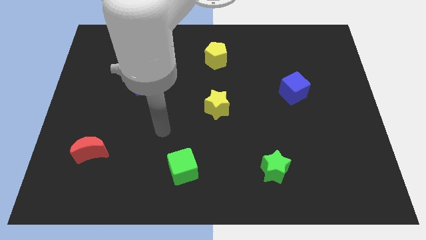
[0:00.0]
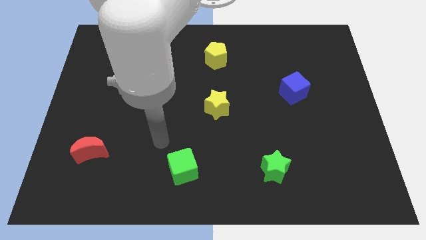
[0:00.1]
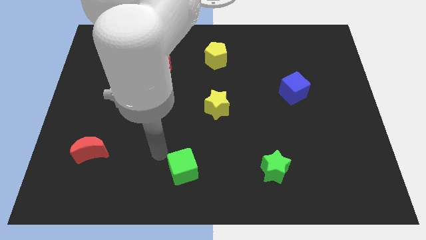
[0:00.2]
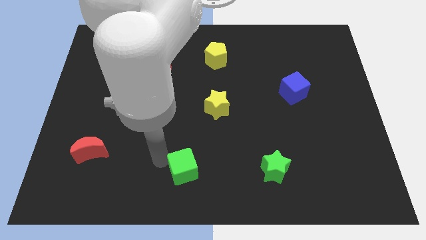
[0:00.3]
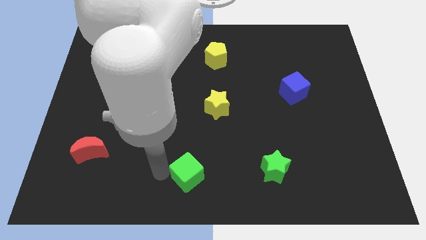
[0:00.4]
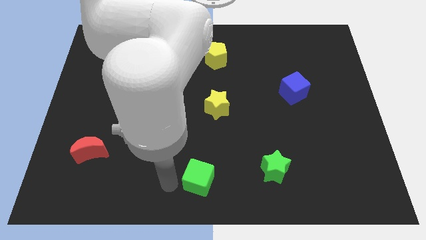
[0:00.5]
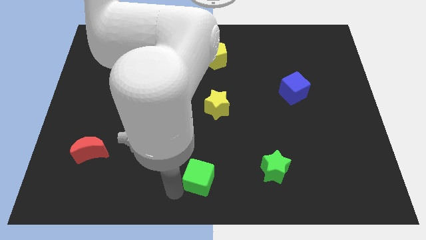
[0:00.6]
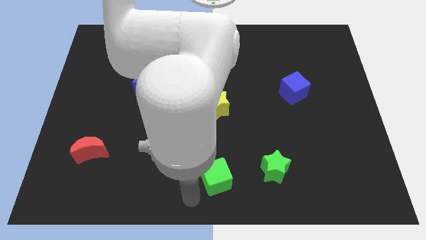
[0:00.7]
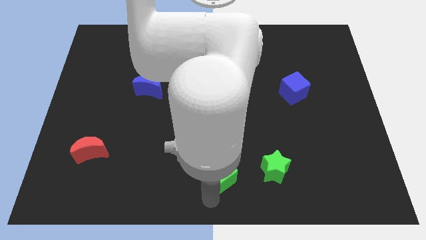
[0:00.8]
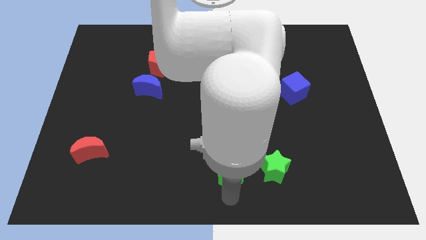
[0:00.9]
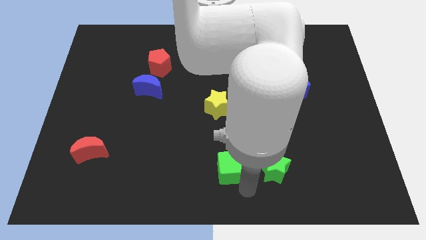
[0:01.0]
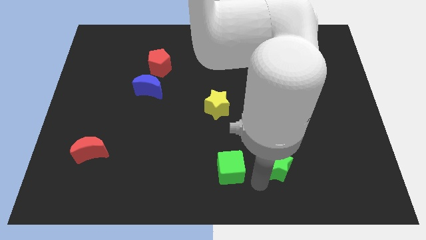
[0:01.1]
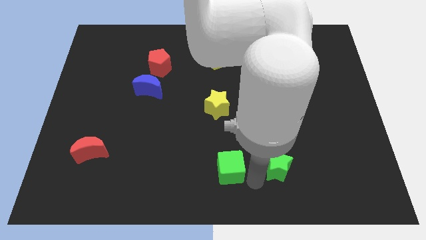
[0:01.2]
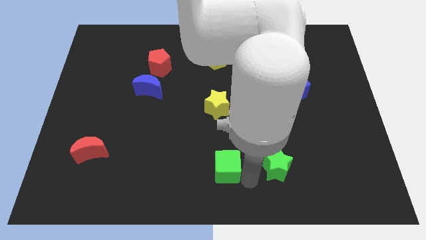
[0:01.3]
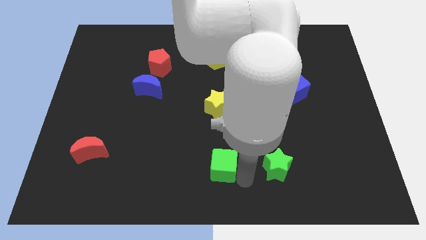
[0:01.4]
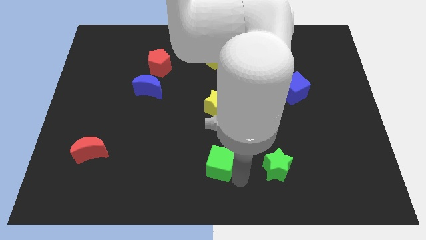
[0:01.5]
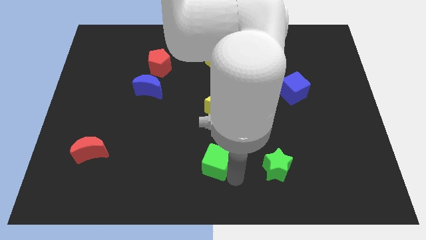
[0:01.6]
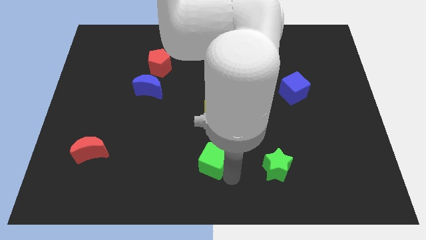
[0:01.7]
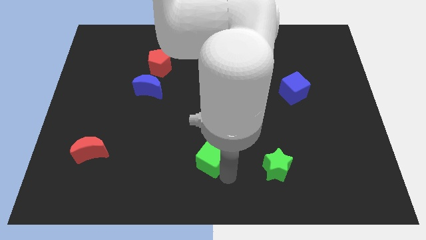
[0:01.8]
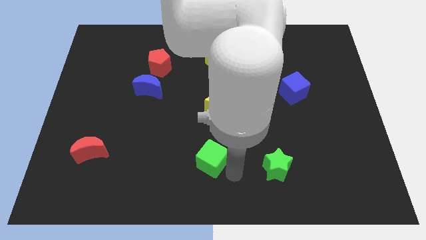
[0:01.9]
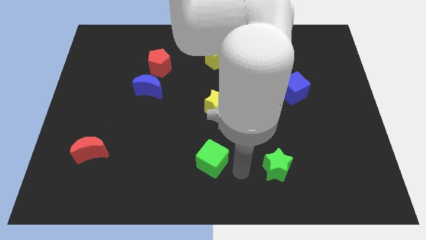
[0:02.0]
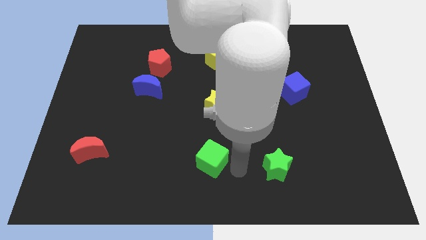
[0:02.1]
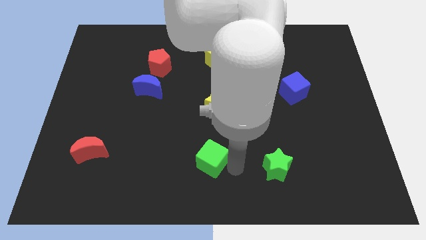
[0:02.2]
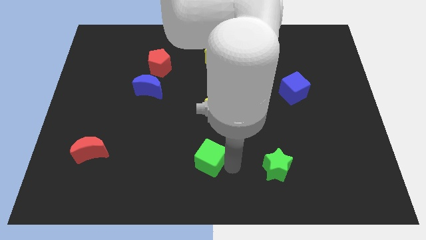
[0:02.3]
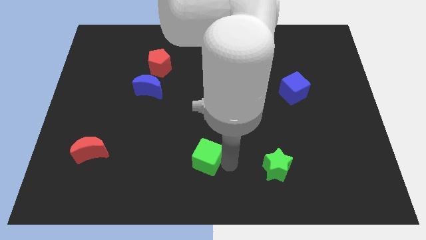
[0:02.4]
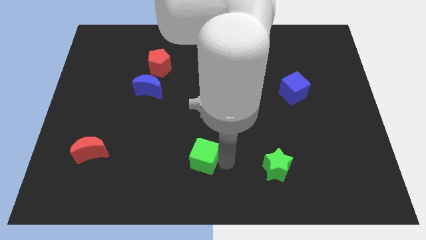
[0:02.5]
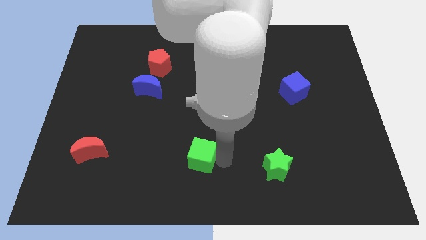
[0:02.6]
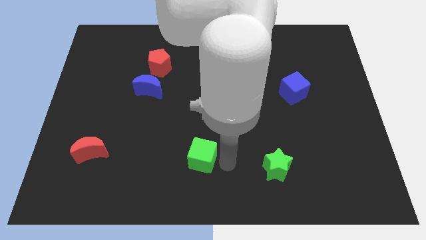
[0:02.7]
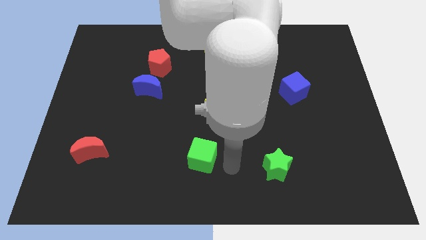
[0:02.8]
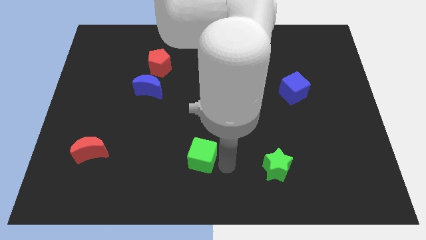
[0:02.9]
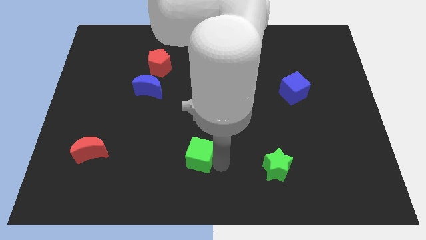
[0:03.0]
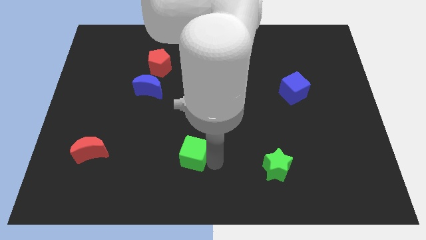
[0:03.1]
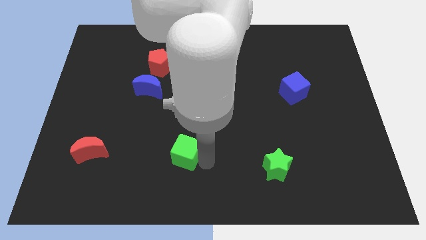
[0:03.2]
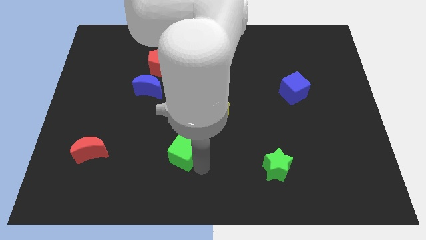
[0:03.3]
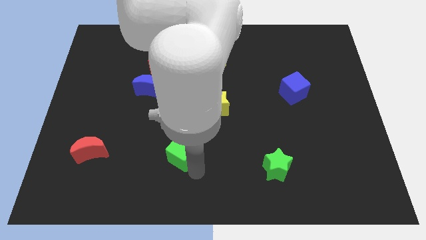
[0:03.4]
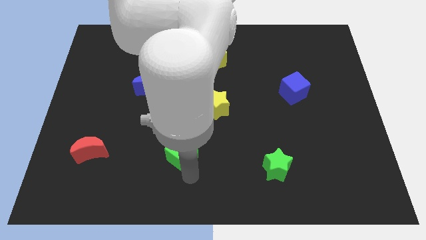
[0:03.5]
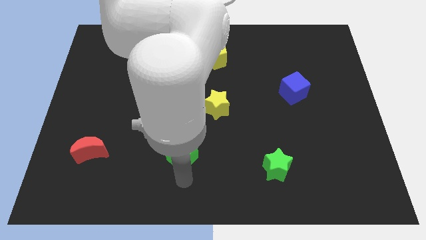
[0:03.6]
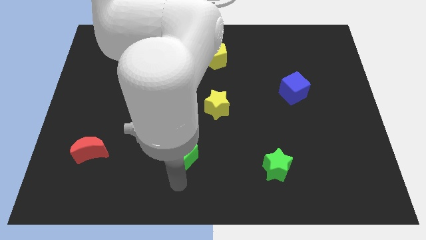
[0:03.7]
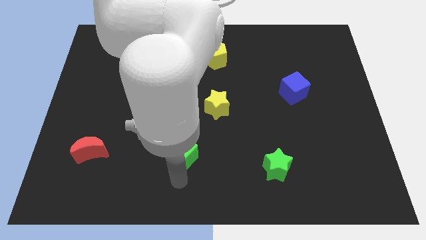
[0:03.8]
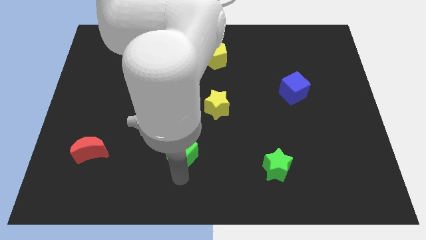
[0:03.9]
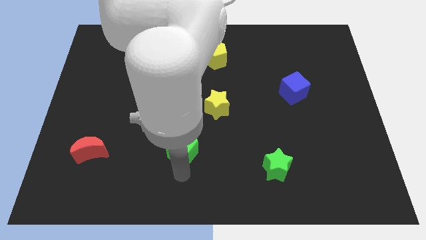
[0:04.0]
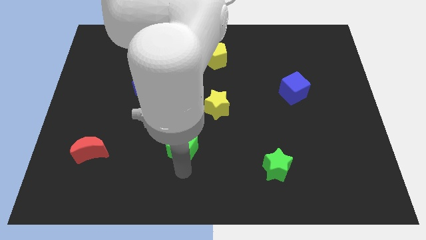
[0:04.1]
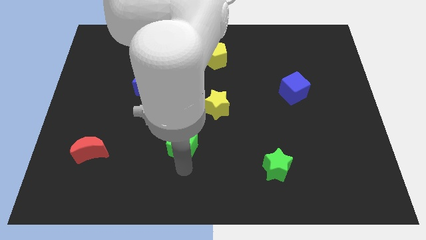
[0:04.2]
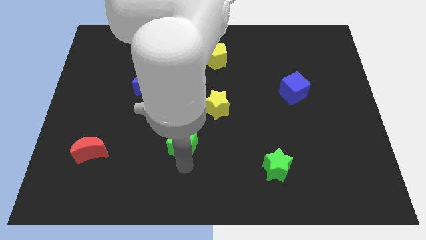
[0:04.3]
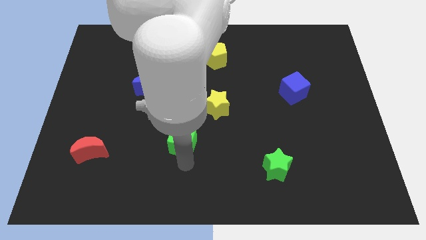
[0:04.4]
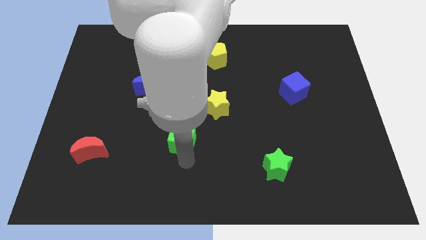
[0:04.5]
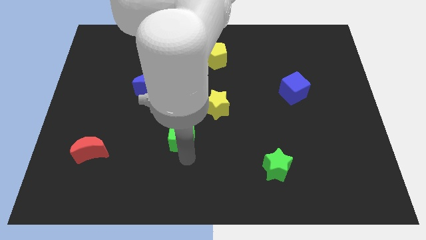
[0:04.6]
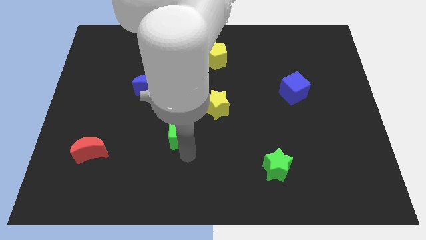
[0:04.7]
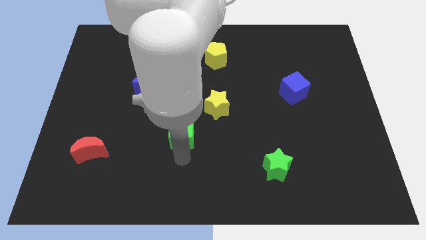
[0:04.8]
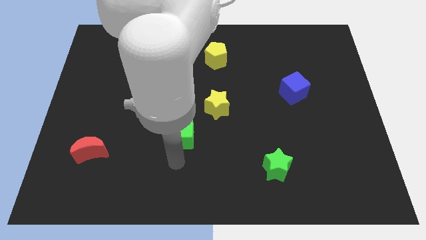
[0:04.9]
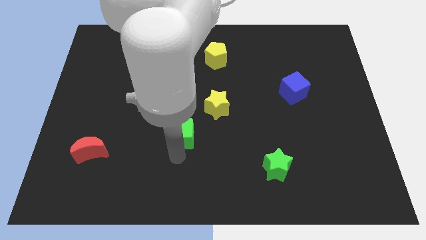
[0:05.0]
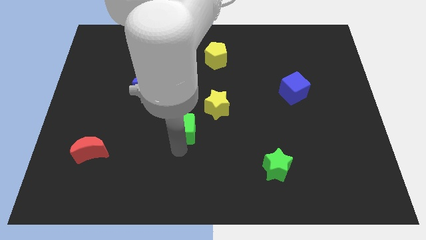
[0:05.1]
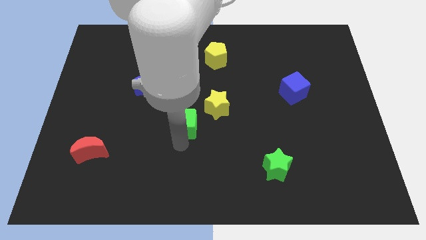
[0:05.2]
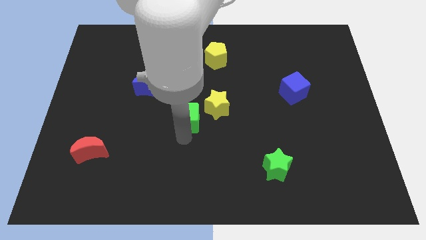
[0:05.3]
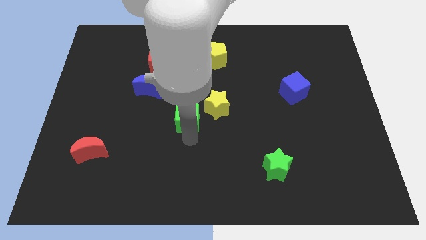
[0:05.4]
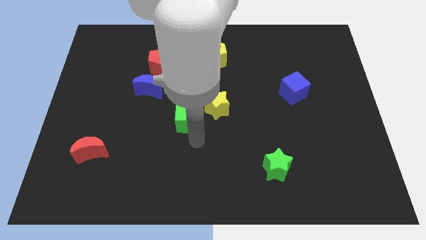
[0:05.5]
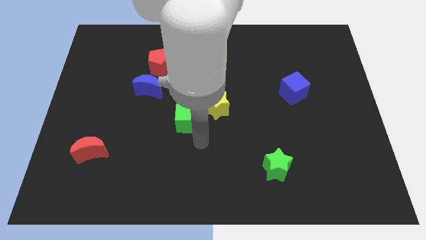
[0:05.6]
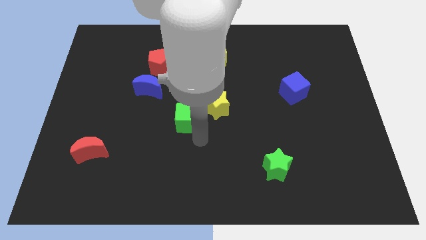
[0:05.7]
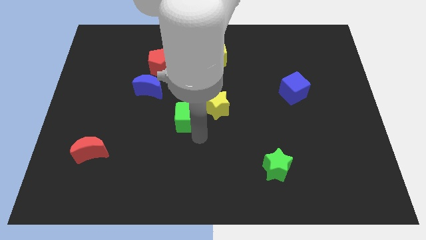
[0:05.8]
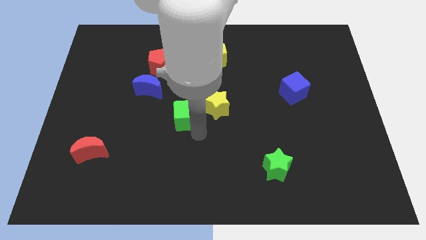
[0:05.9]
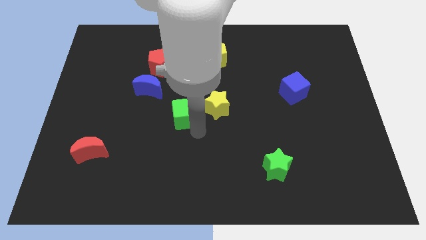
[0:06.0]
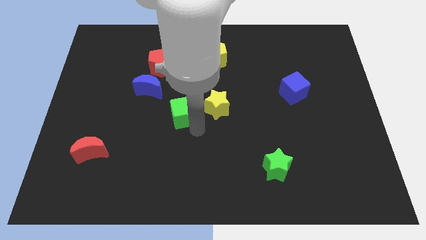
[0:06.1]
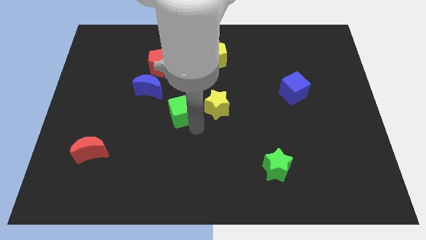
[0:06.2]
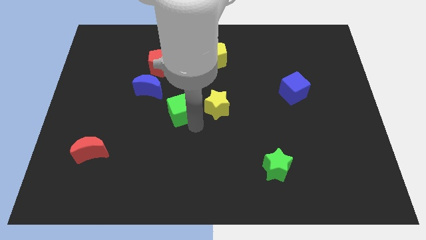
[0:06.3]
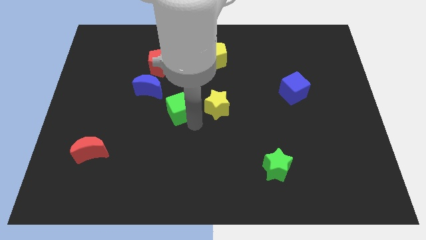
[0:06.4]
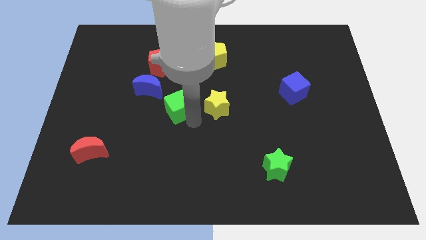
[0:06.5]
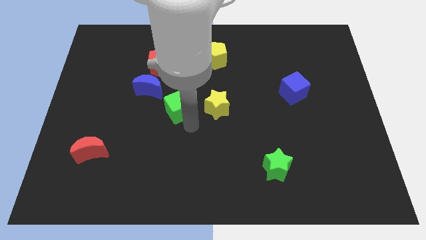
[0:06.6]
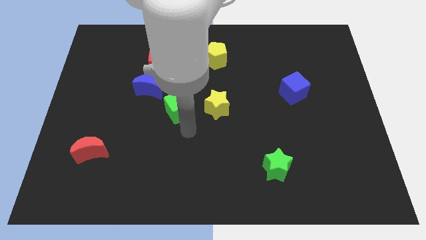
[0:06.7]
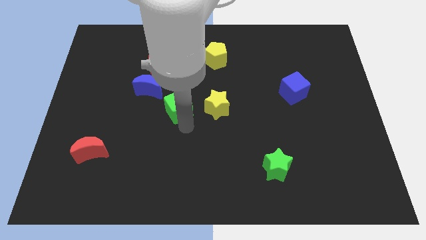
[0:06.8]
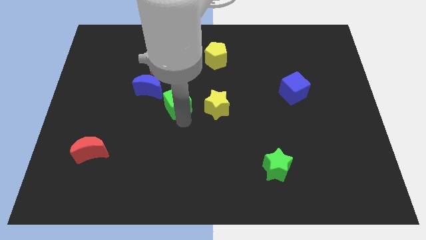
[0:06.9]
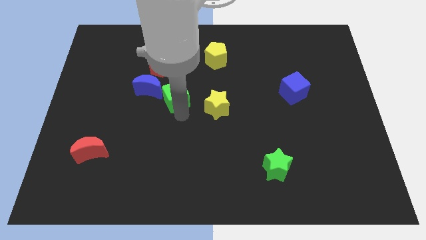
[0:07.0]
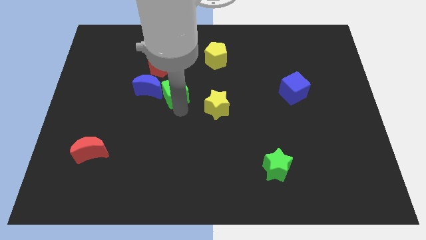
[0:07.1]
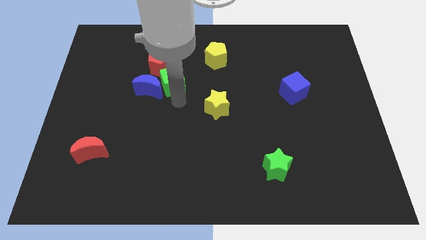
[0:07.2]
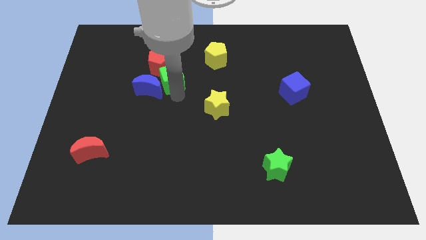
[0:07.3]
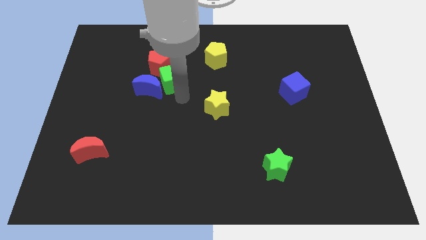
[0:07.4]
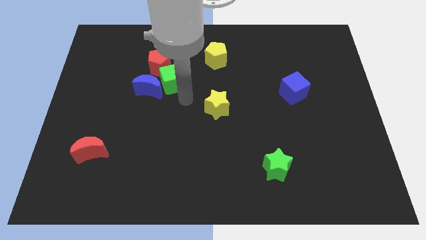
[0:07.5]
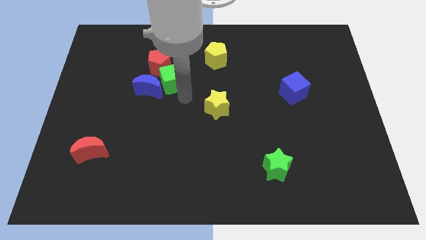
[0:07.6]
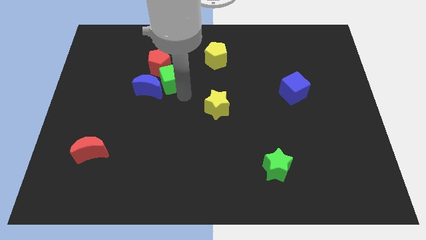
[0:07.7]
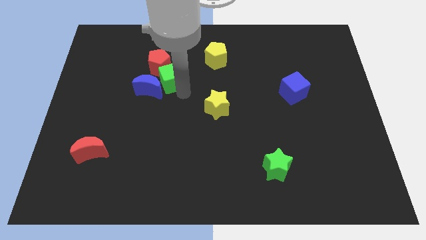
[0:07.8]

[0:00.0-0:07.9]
push the green cube towards the red pentagon
